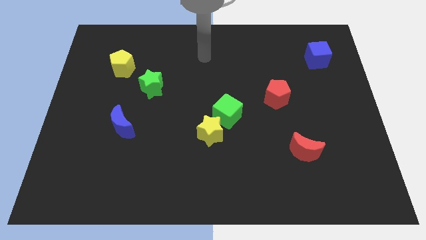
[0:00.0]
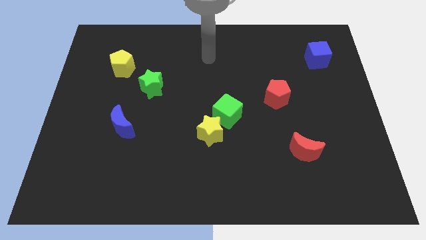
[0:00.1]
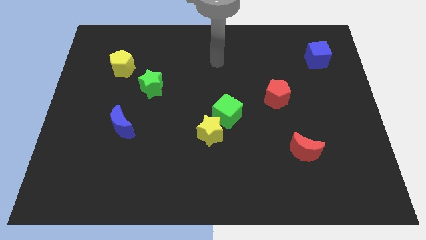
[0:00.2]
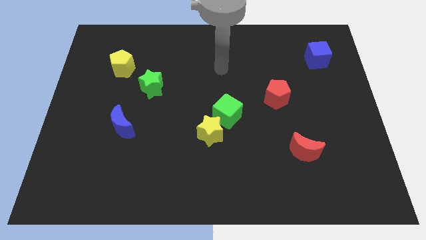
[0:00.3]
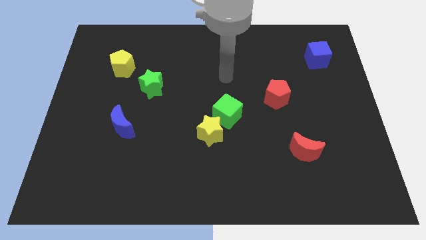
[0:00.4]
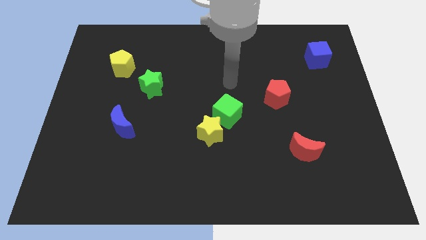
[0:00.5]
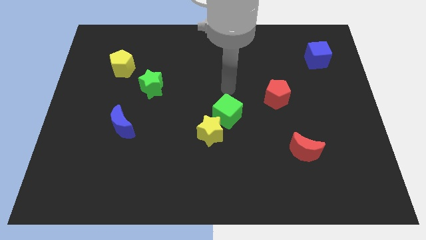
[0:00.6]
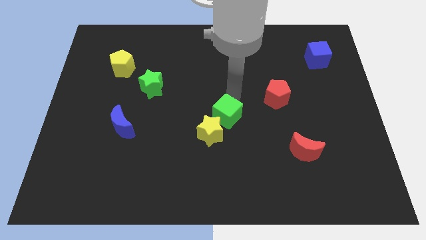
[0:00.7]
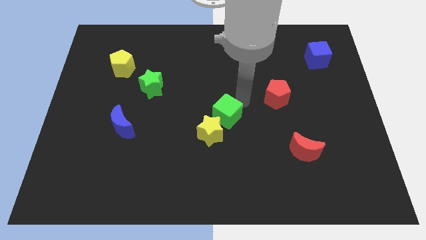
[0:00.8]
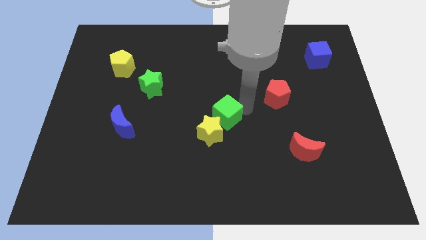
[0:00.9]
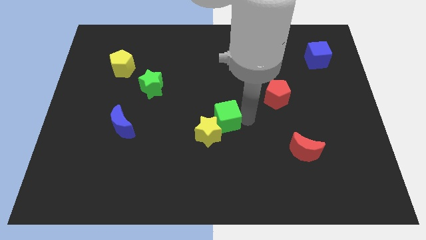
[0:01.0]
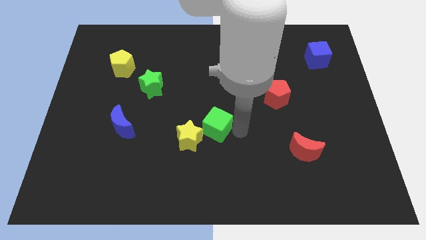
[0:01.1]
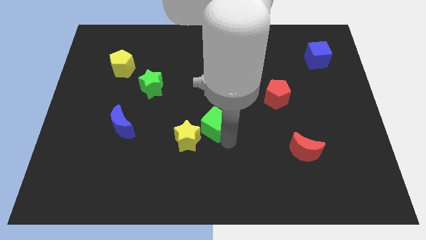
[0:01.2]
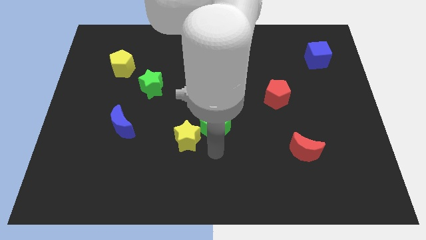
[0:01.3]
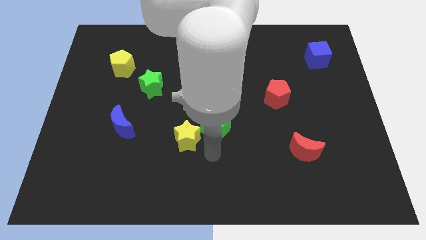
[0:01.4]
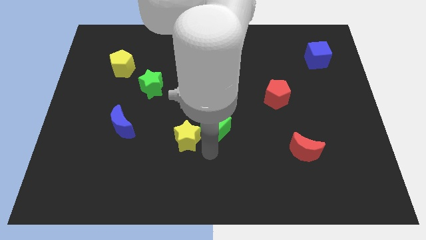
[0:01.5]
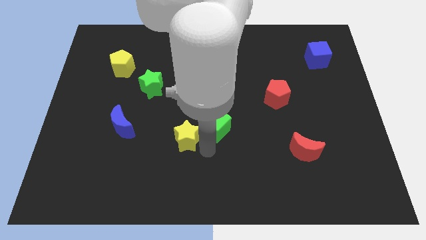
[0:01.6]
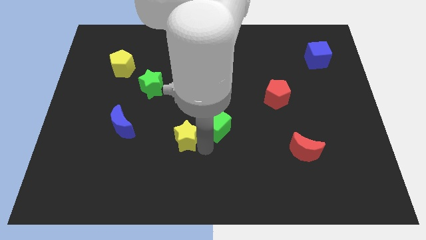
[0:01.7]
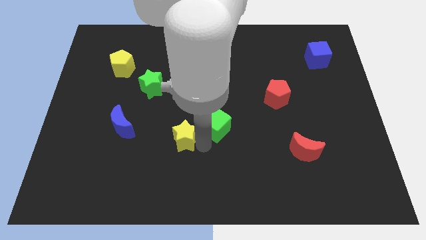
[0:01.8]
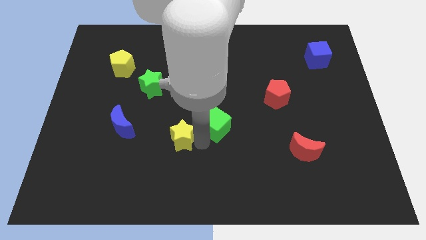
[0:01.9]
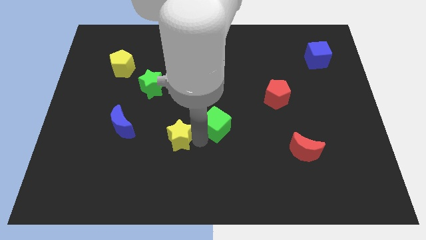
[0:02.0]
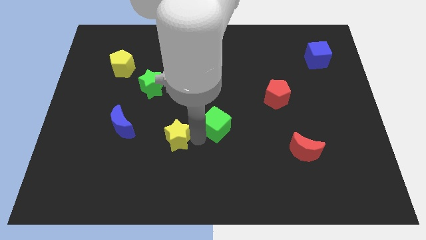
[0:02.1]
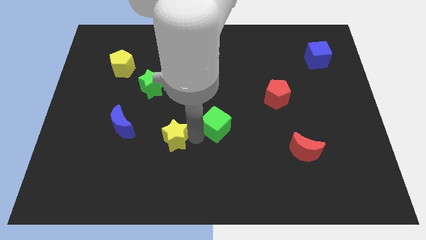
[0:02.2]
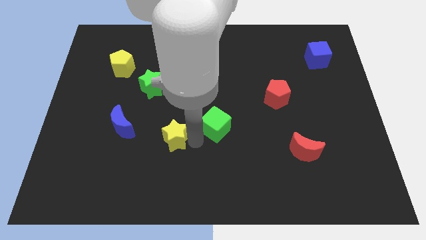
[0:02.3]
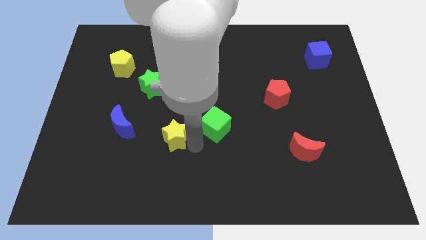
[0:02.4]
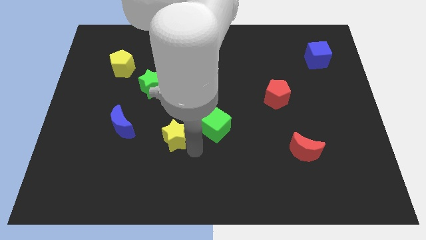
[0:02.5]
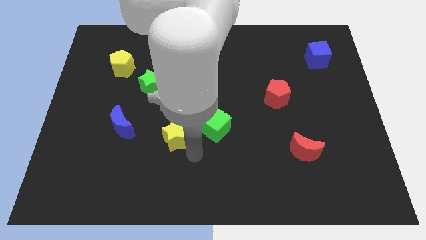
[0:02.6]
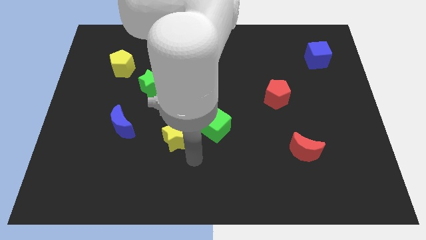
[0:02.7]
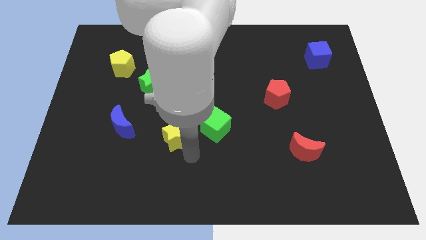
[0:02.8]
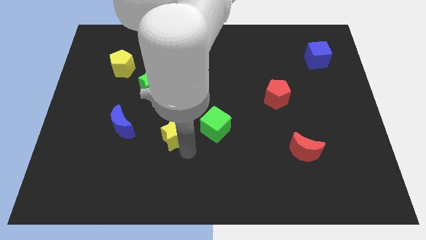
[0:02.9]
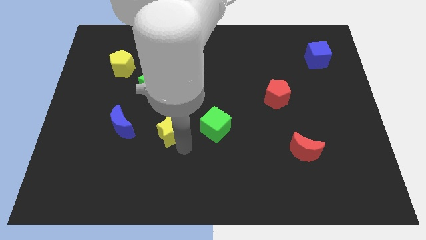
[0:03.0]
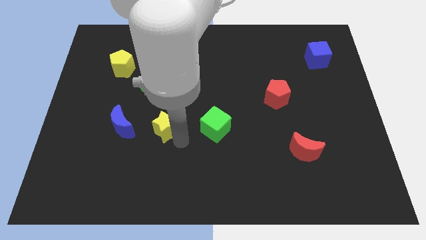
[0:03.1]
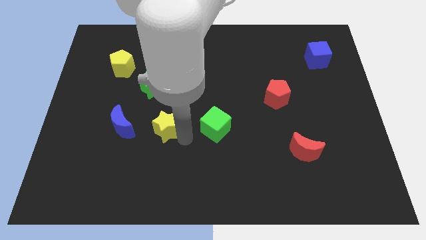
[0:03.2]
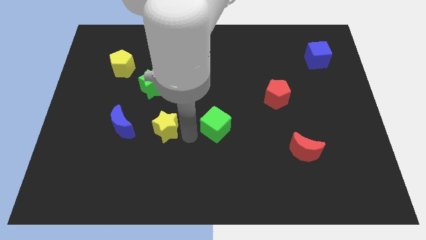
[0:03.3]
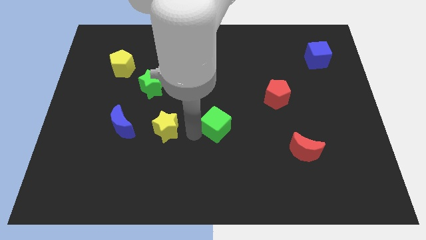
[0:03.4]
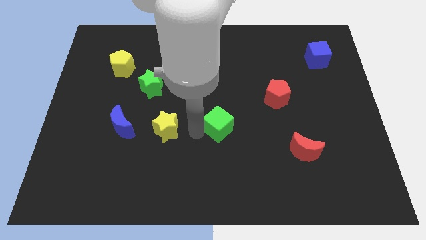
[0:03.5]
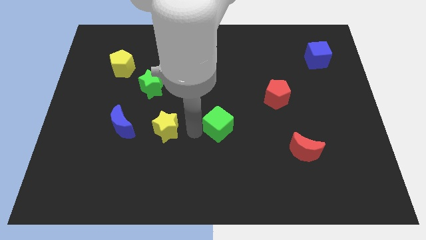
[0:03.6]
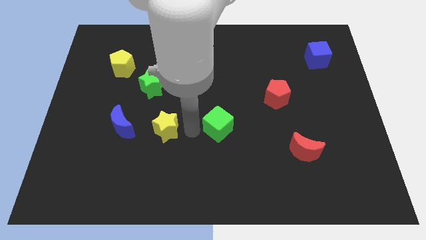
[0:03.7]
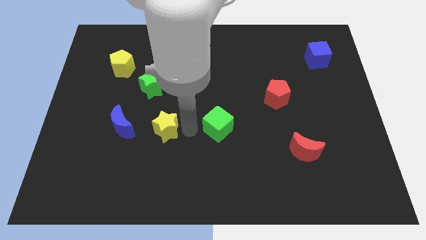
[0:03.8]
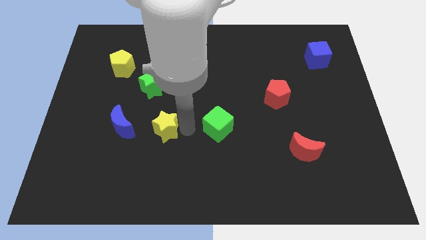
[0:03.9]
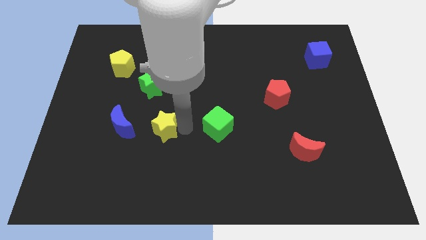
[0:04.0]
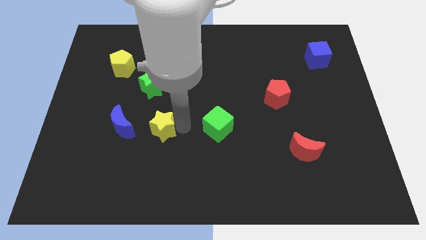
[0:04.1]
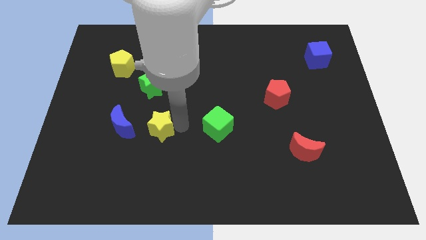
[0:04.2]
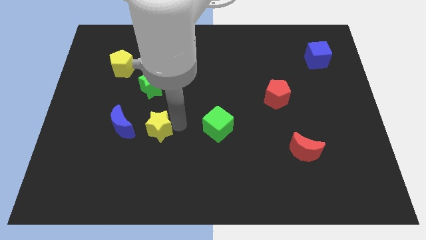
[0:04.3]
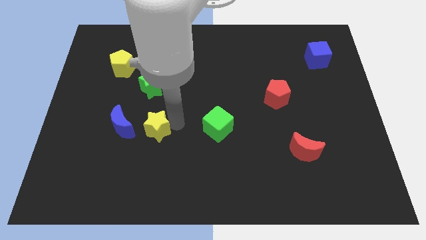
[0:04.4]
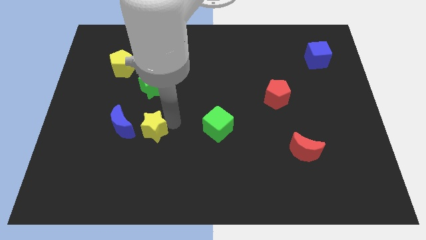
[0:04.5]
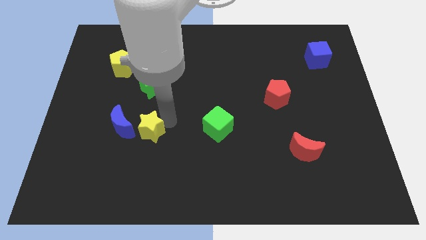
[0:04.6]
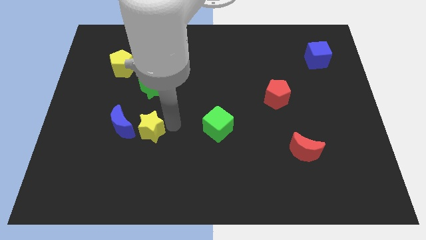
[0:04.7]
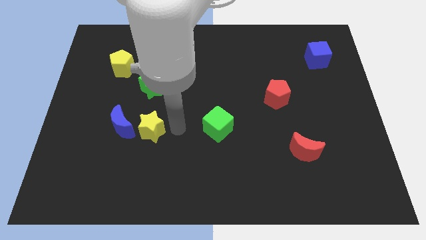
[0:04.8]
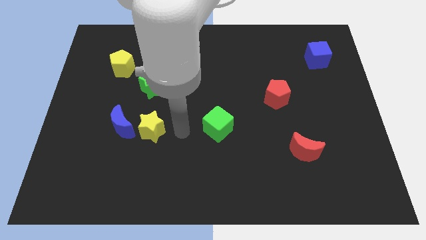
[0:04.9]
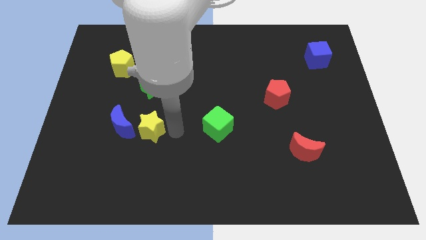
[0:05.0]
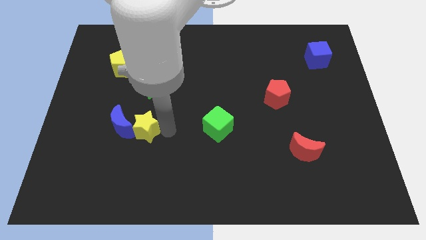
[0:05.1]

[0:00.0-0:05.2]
push the yellow star towards the blue moon

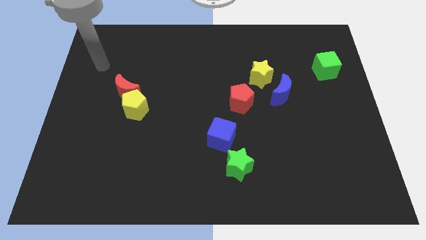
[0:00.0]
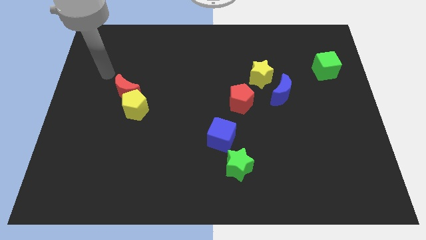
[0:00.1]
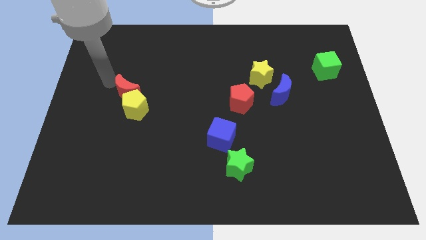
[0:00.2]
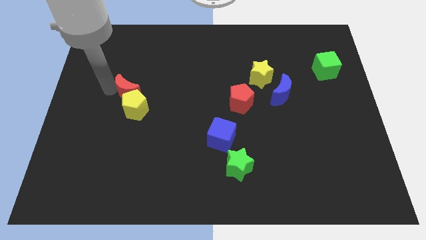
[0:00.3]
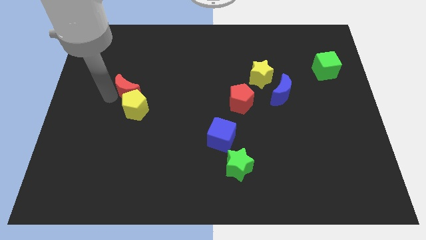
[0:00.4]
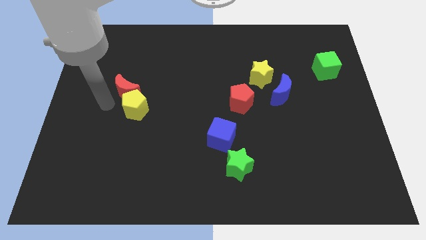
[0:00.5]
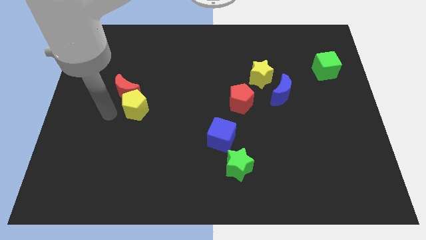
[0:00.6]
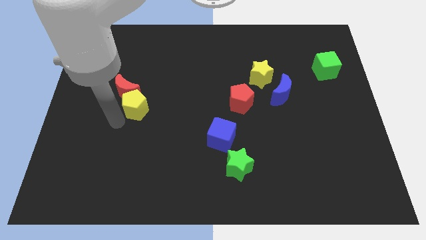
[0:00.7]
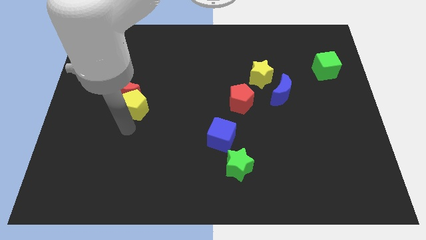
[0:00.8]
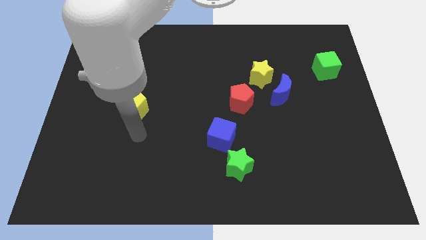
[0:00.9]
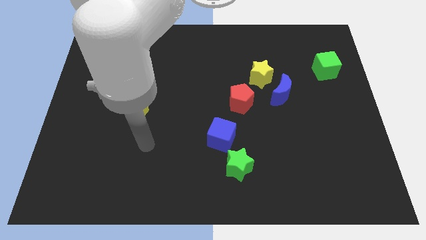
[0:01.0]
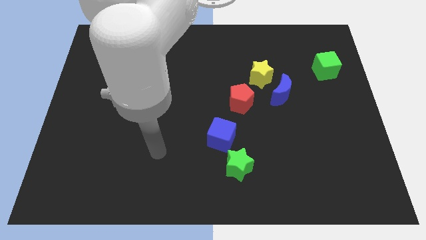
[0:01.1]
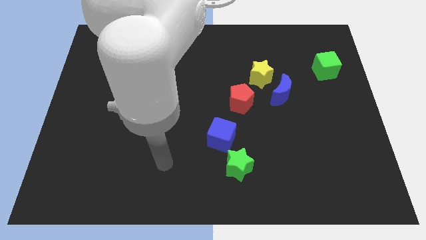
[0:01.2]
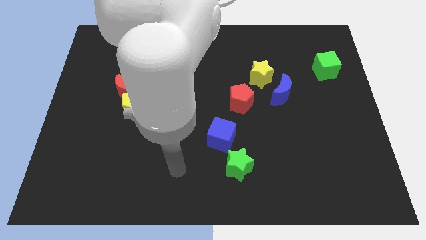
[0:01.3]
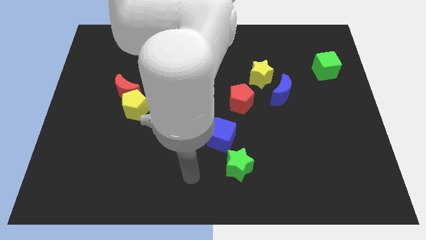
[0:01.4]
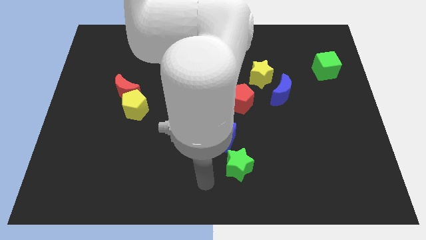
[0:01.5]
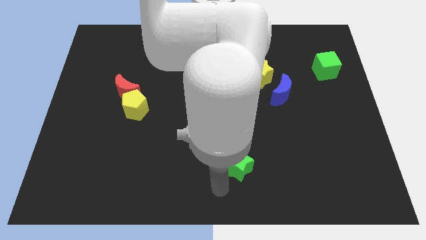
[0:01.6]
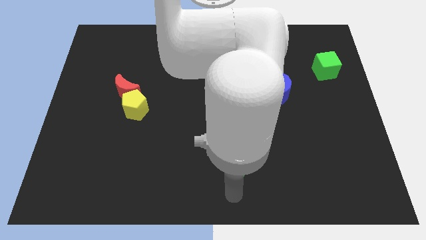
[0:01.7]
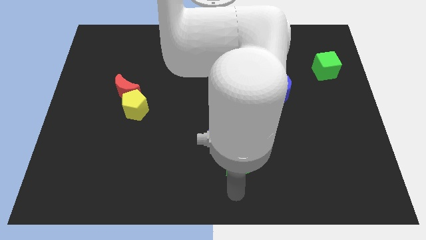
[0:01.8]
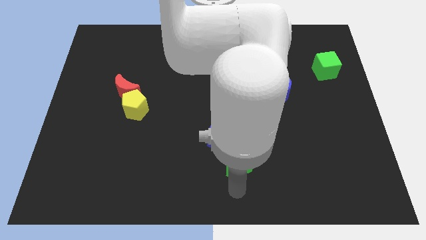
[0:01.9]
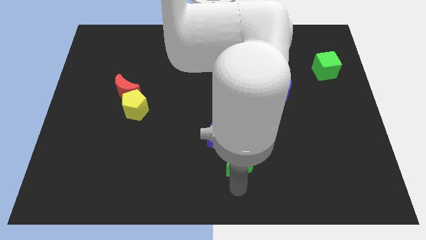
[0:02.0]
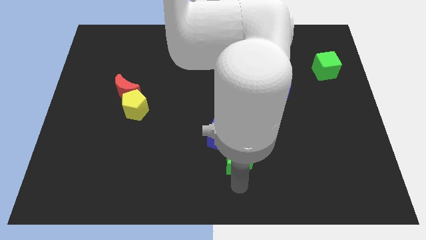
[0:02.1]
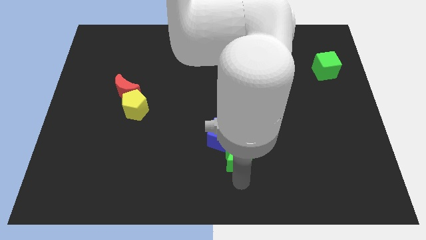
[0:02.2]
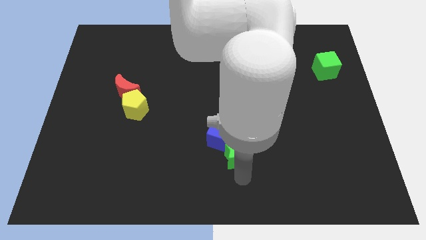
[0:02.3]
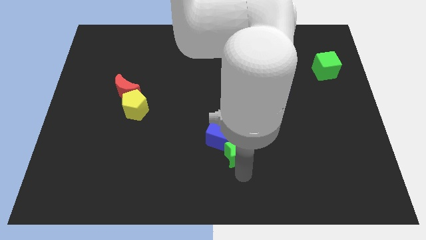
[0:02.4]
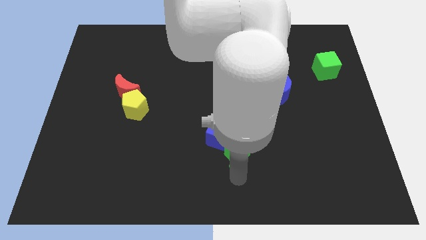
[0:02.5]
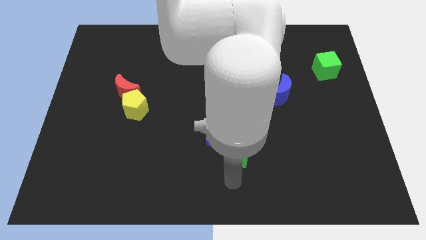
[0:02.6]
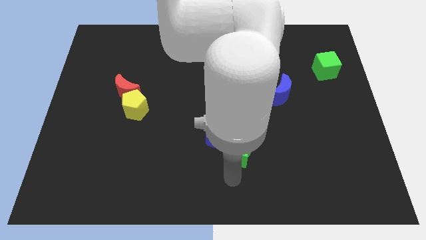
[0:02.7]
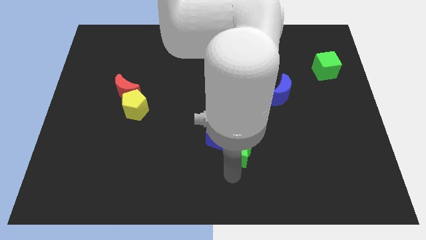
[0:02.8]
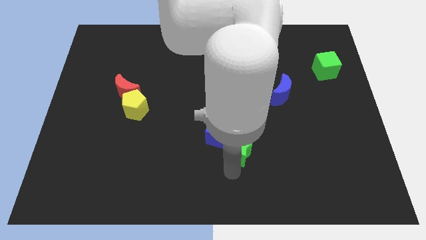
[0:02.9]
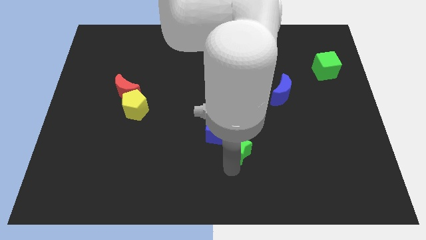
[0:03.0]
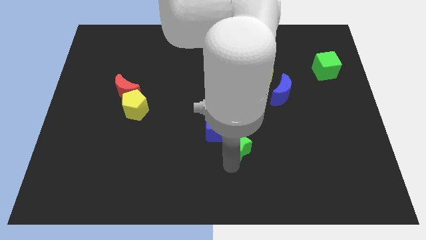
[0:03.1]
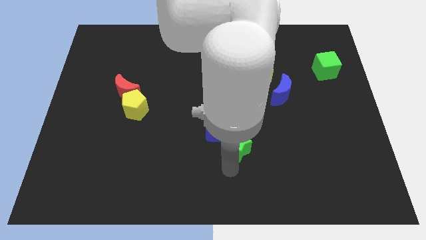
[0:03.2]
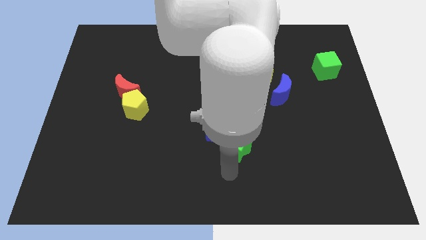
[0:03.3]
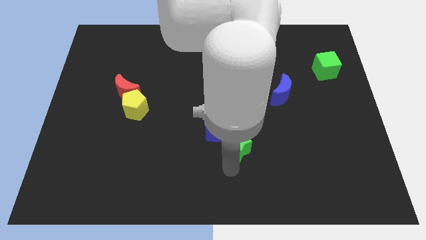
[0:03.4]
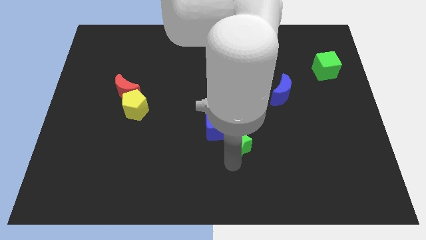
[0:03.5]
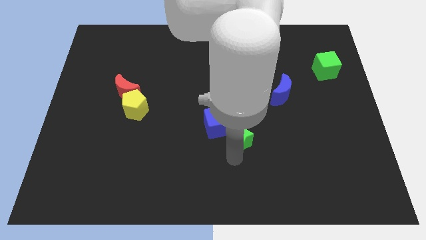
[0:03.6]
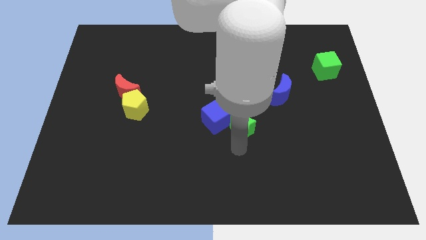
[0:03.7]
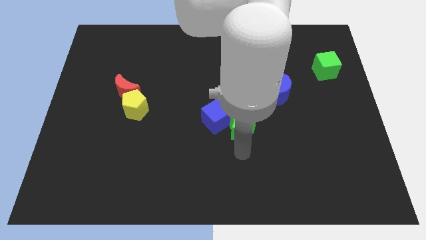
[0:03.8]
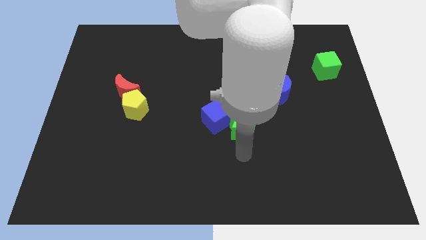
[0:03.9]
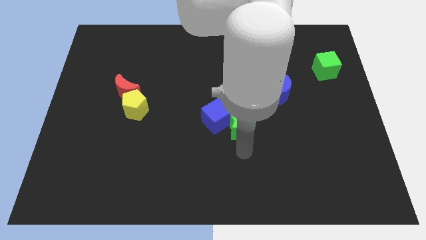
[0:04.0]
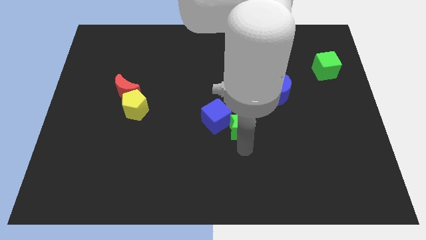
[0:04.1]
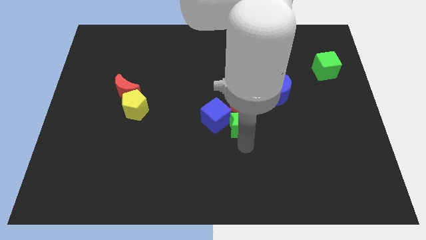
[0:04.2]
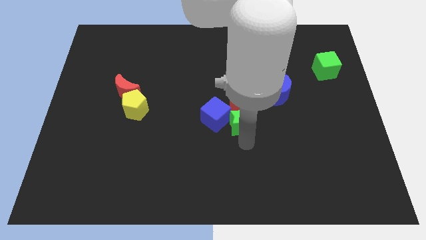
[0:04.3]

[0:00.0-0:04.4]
move the green star towards the red pentagon
